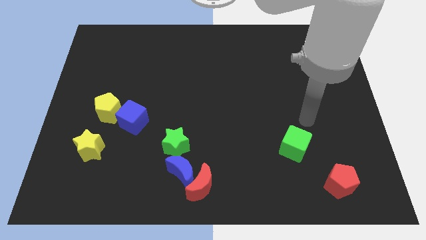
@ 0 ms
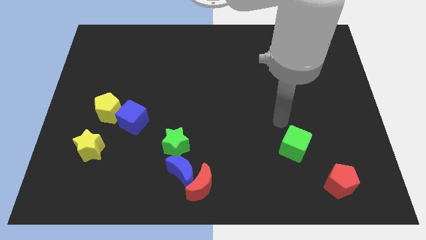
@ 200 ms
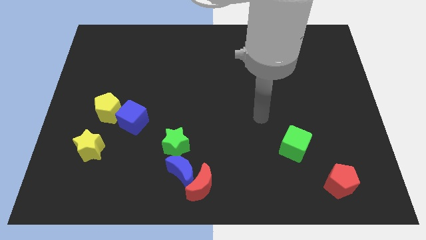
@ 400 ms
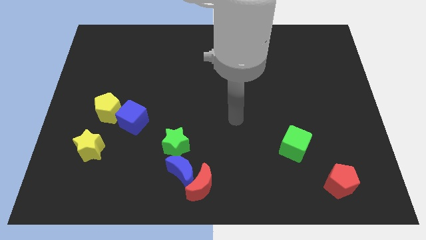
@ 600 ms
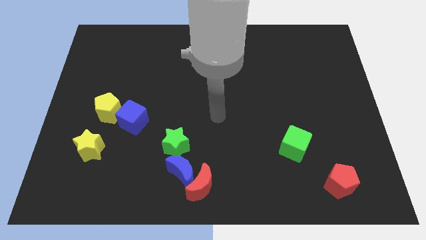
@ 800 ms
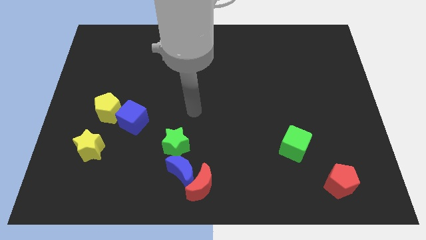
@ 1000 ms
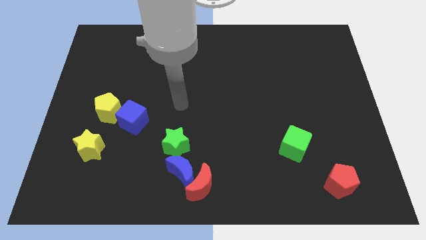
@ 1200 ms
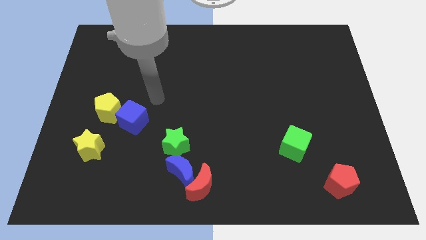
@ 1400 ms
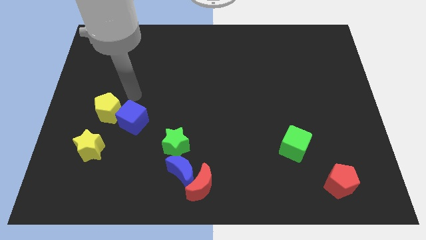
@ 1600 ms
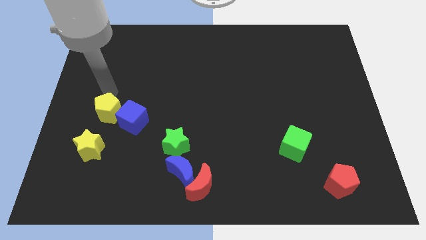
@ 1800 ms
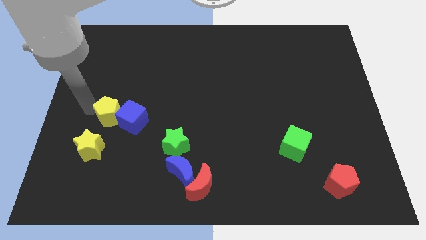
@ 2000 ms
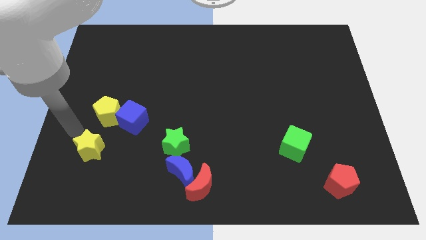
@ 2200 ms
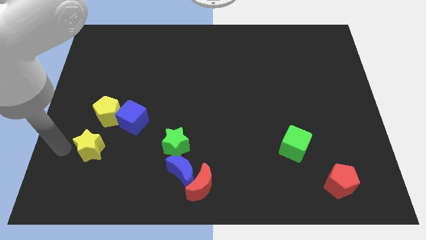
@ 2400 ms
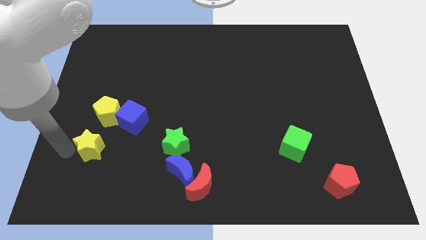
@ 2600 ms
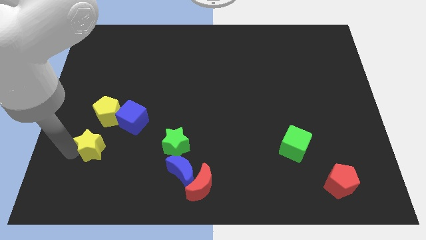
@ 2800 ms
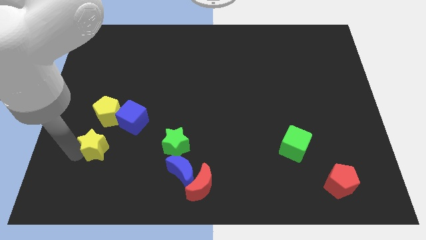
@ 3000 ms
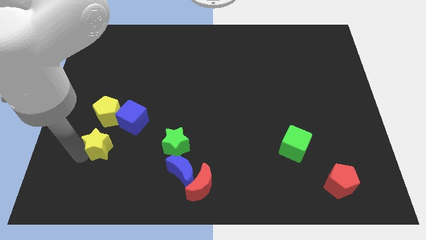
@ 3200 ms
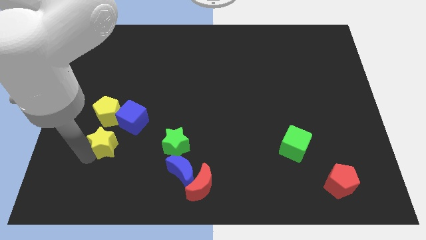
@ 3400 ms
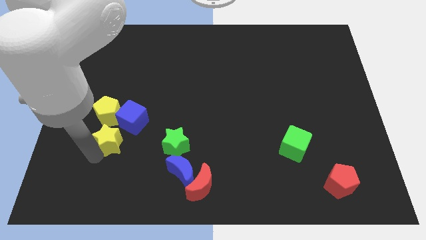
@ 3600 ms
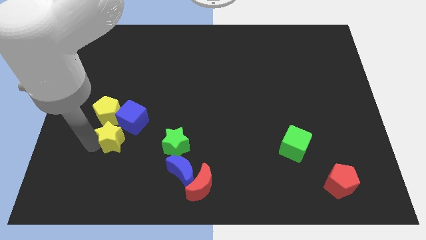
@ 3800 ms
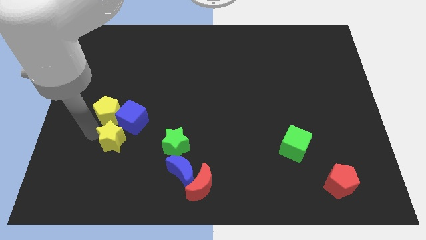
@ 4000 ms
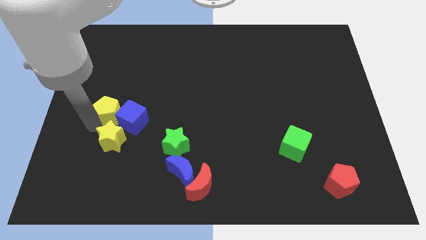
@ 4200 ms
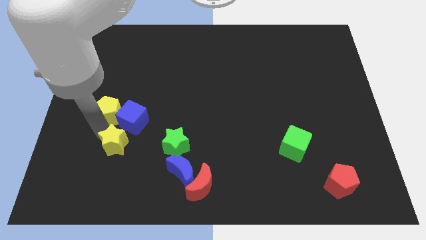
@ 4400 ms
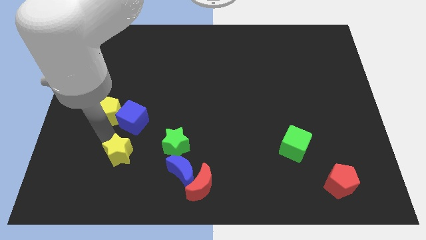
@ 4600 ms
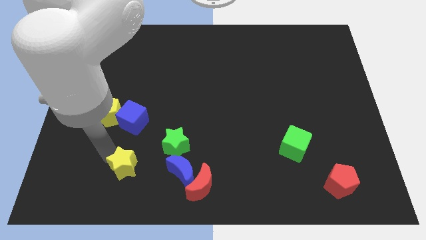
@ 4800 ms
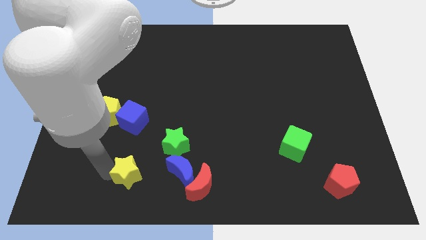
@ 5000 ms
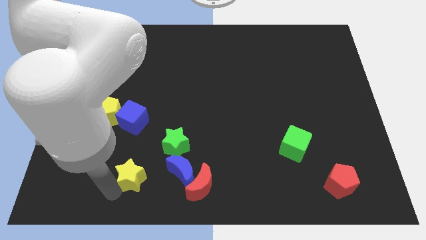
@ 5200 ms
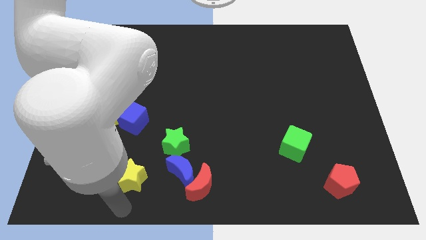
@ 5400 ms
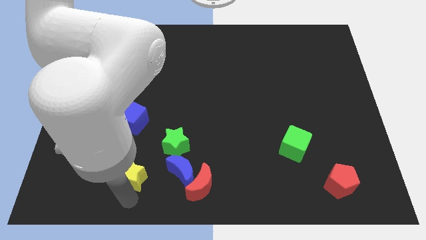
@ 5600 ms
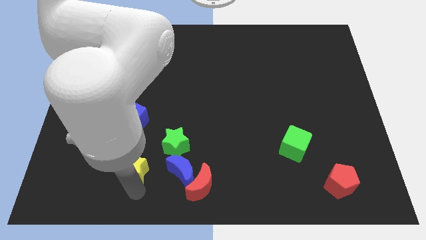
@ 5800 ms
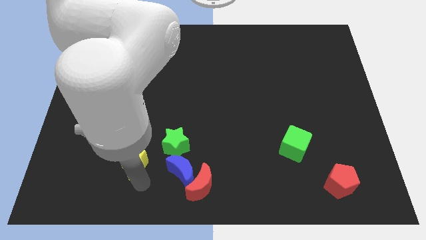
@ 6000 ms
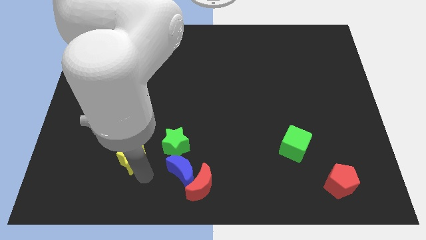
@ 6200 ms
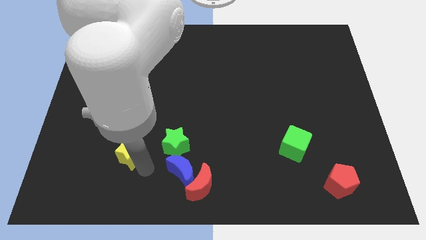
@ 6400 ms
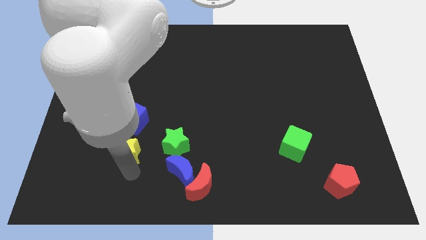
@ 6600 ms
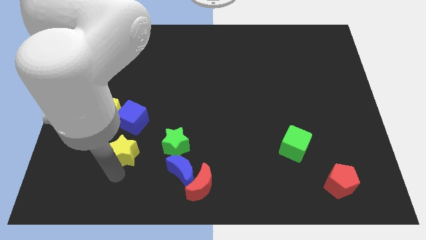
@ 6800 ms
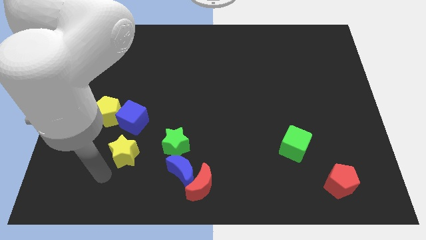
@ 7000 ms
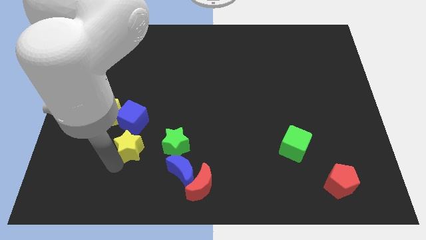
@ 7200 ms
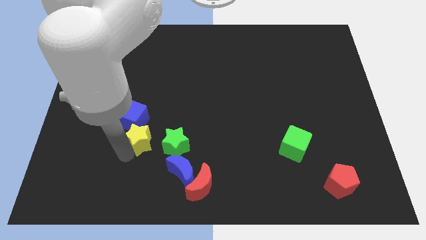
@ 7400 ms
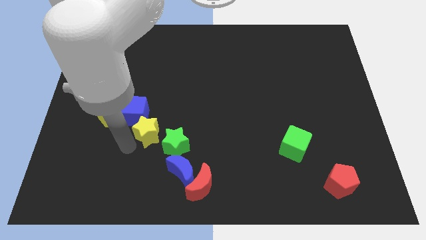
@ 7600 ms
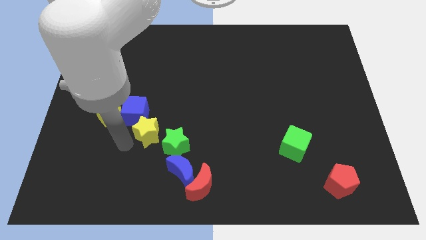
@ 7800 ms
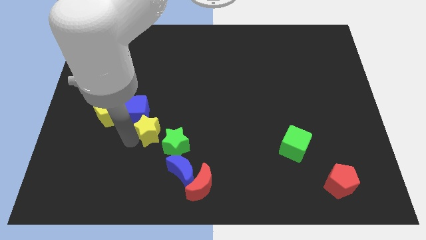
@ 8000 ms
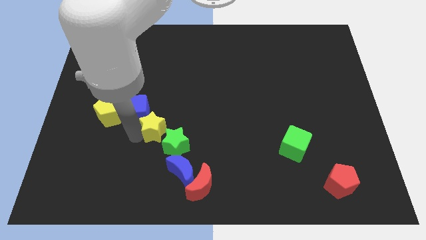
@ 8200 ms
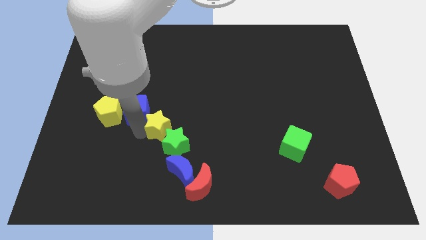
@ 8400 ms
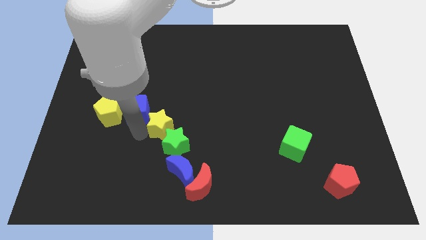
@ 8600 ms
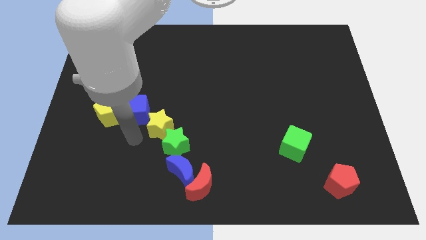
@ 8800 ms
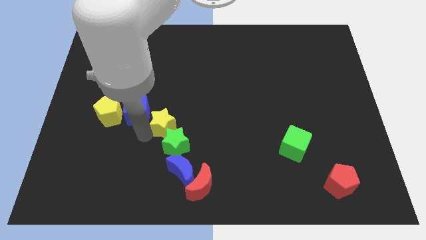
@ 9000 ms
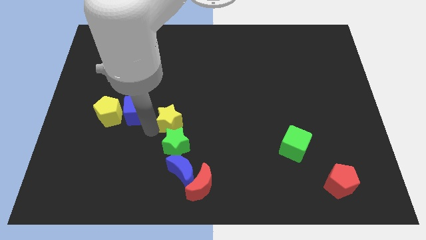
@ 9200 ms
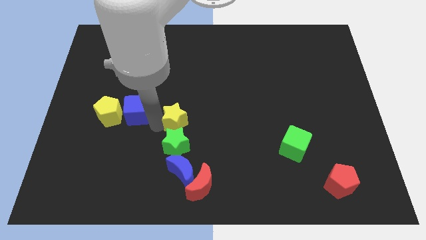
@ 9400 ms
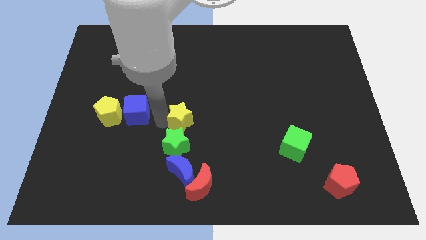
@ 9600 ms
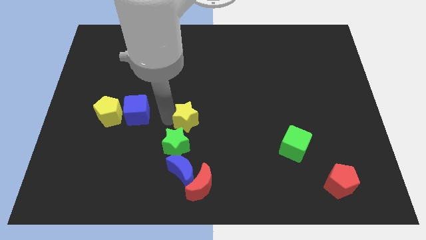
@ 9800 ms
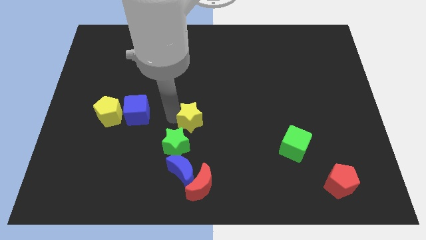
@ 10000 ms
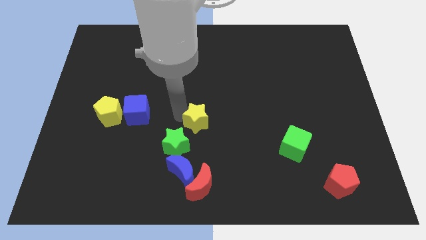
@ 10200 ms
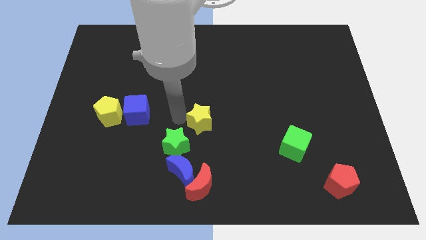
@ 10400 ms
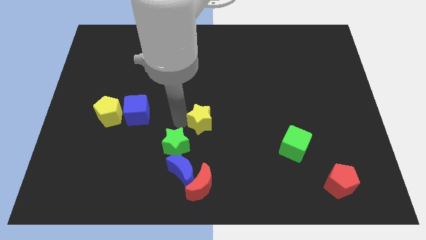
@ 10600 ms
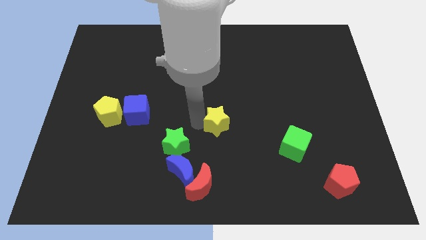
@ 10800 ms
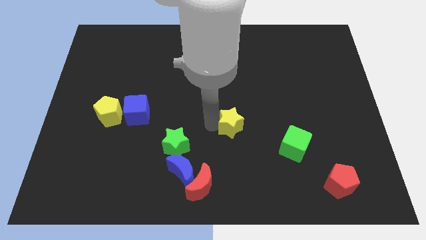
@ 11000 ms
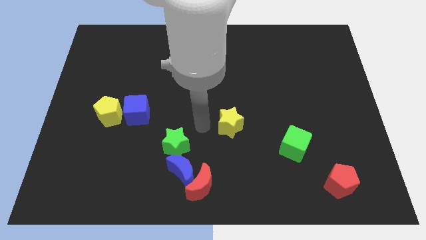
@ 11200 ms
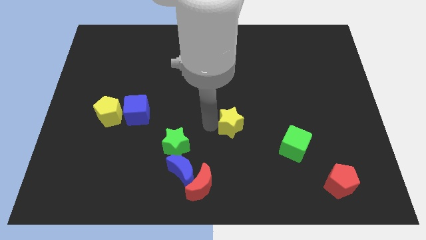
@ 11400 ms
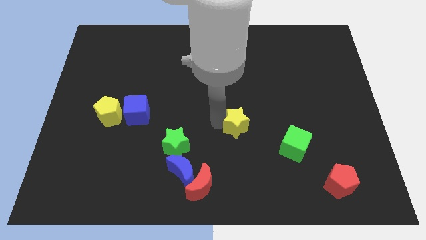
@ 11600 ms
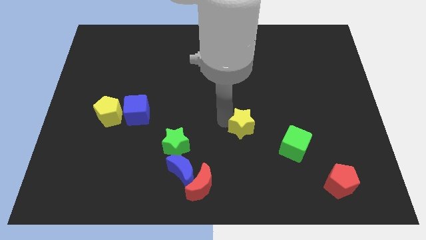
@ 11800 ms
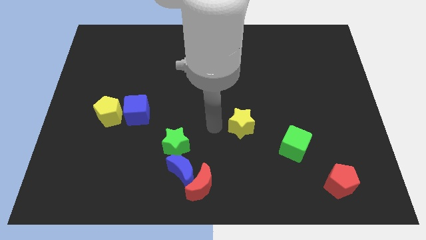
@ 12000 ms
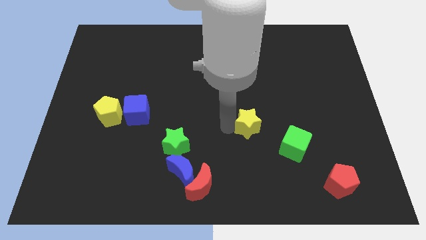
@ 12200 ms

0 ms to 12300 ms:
push the yellow star diagonally up and to the left of the green cube

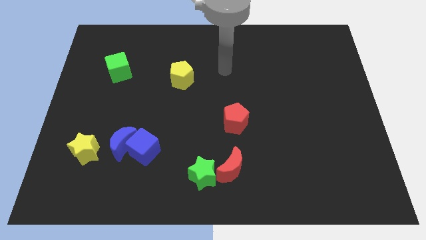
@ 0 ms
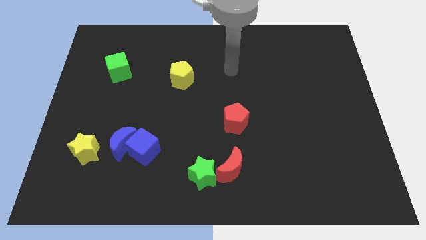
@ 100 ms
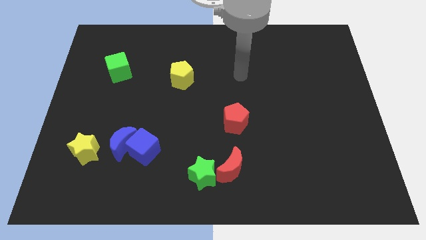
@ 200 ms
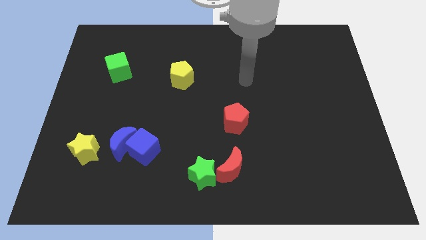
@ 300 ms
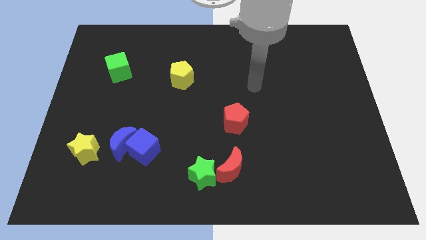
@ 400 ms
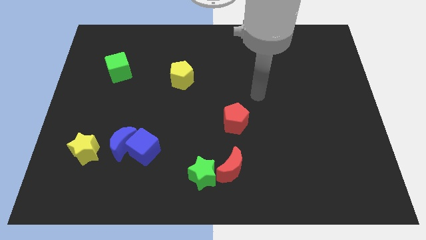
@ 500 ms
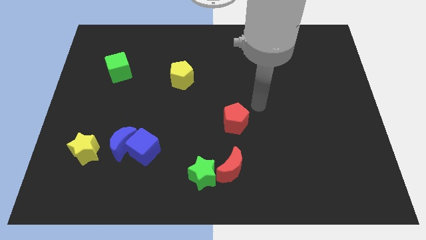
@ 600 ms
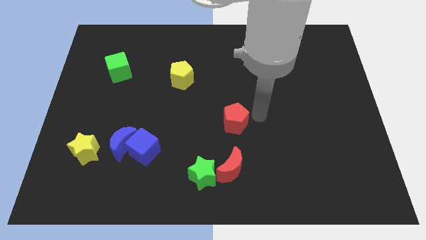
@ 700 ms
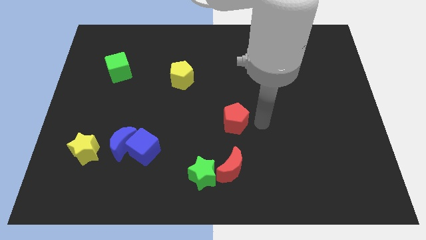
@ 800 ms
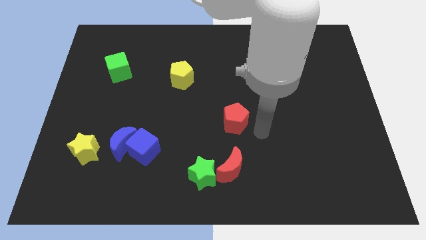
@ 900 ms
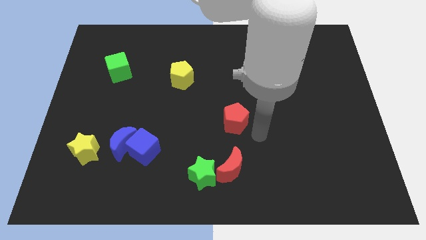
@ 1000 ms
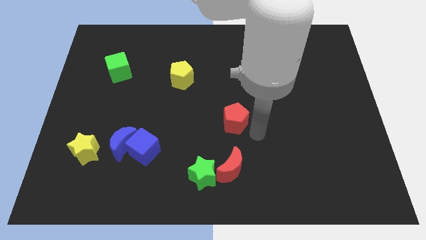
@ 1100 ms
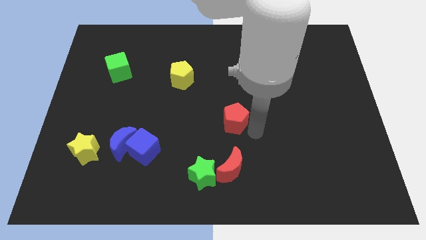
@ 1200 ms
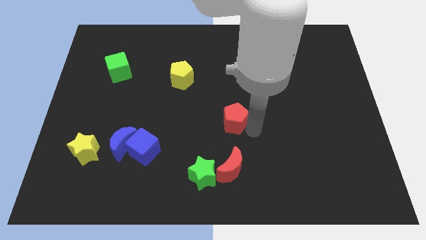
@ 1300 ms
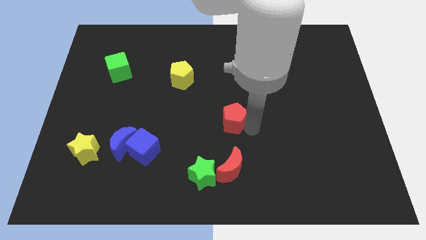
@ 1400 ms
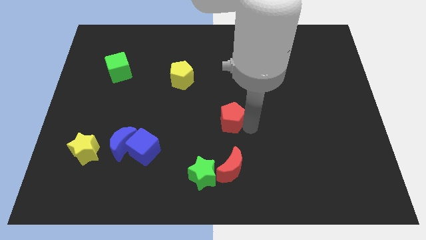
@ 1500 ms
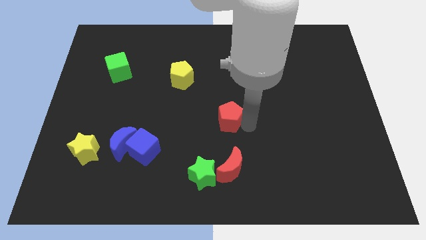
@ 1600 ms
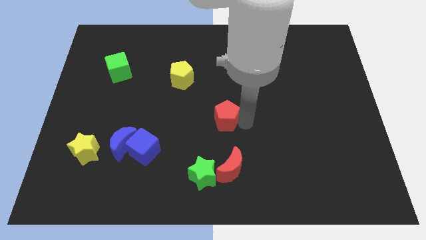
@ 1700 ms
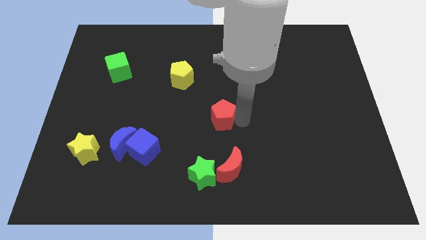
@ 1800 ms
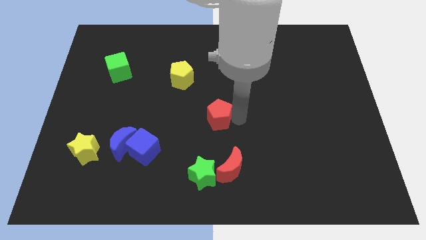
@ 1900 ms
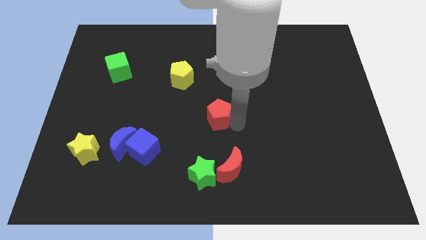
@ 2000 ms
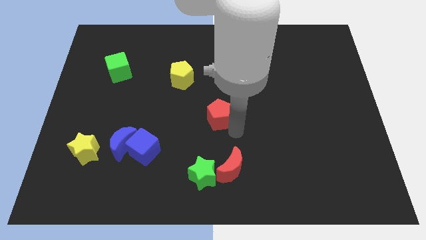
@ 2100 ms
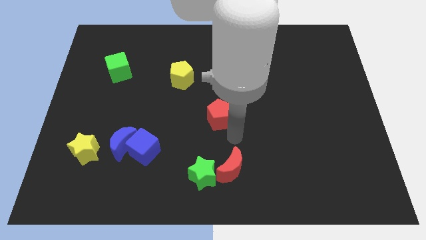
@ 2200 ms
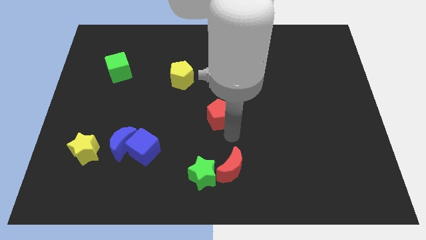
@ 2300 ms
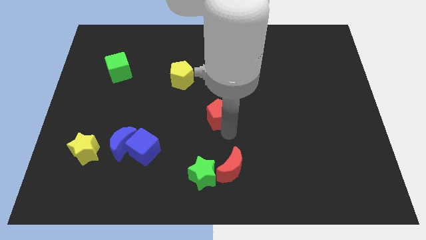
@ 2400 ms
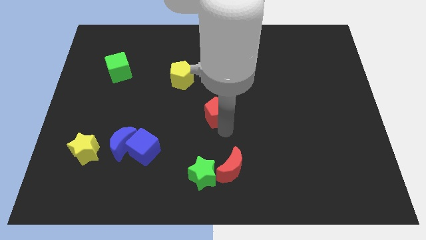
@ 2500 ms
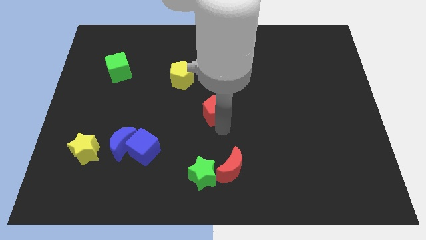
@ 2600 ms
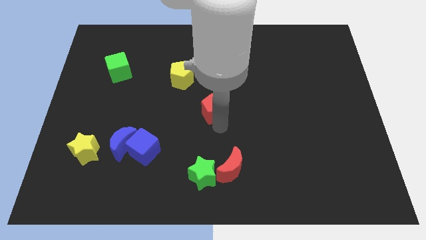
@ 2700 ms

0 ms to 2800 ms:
put the red pentagon diagonally down and to the right of the yellow pentagon
